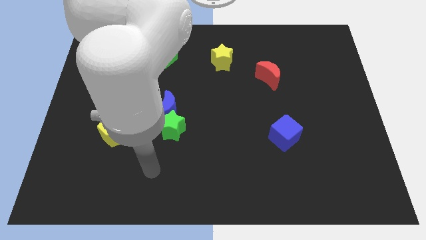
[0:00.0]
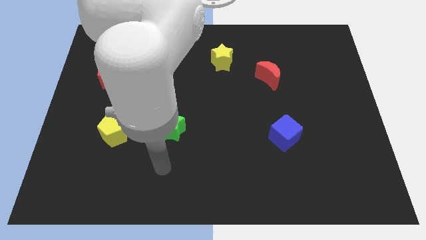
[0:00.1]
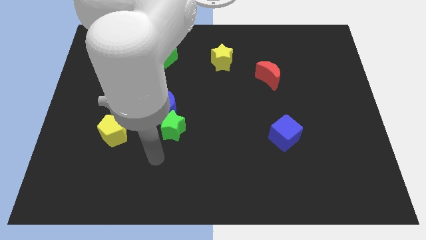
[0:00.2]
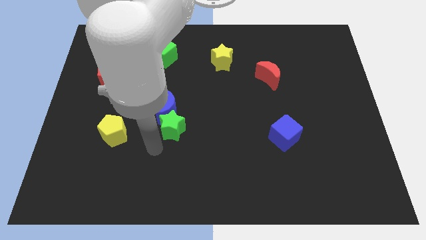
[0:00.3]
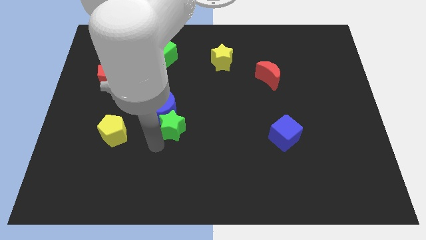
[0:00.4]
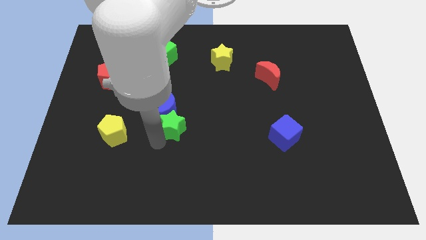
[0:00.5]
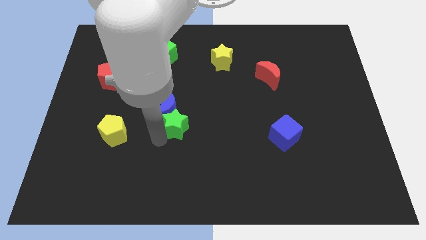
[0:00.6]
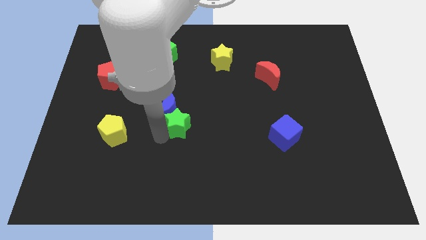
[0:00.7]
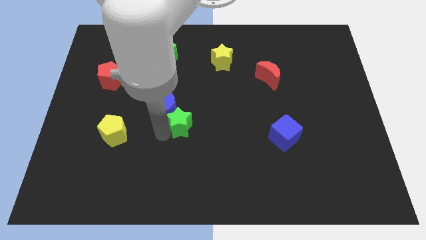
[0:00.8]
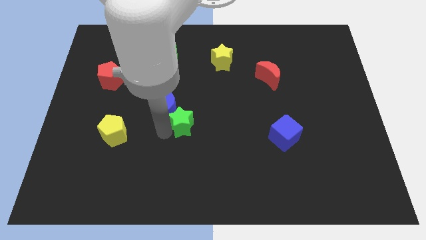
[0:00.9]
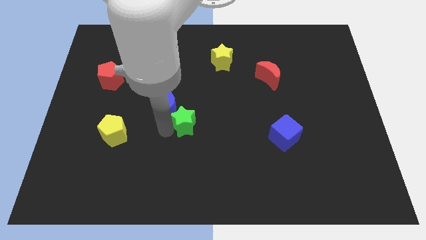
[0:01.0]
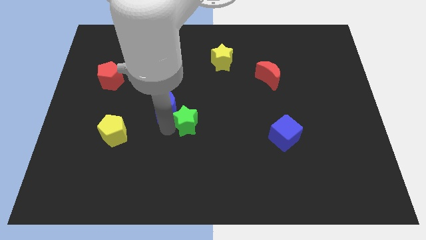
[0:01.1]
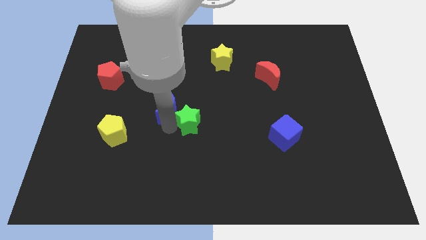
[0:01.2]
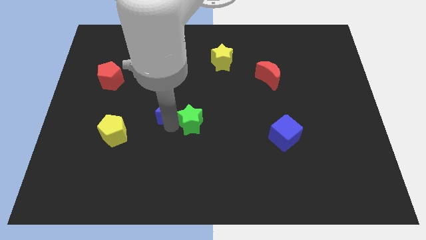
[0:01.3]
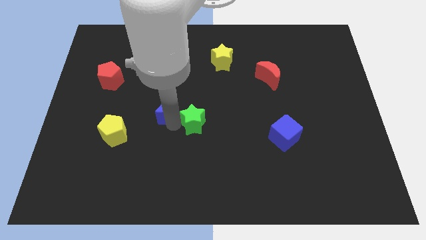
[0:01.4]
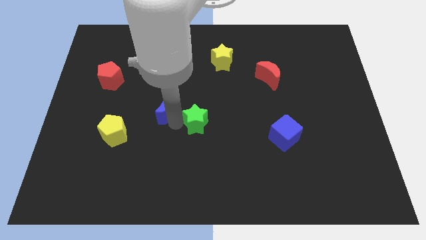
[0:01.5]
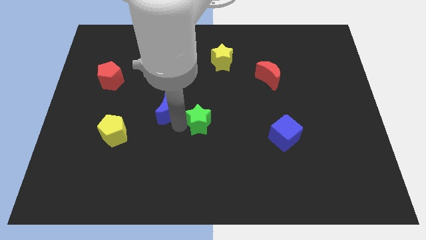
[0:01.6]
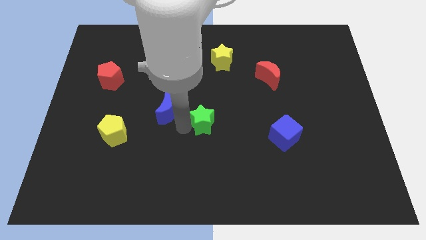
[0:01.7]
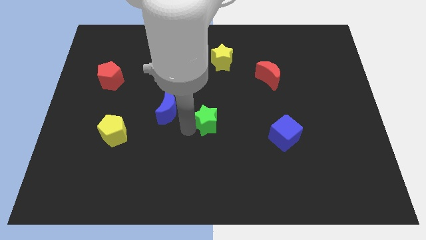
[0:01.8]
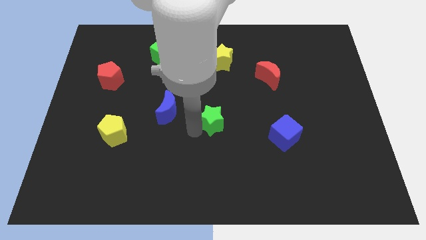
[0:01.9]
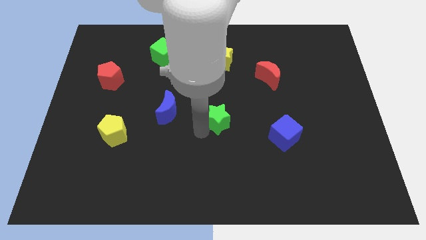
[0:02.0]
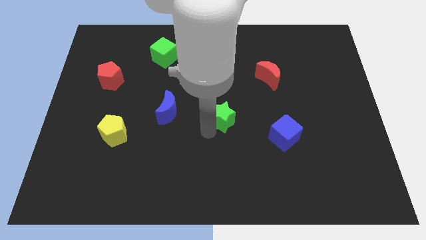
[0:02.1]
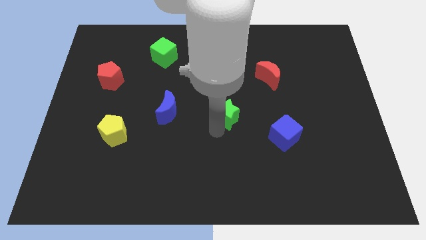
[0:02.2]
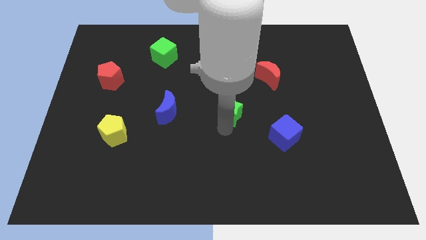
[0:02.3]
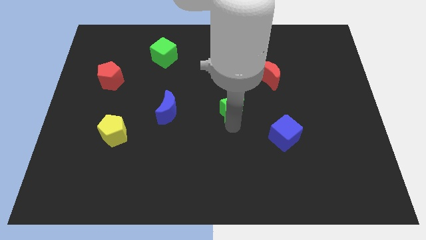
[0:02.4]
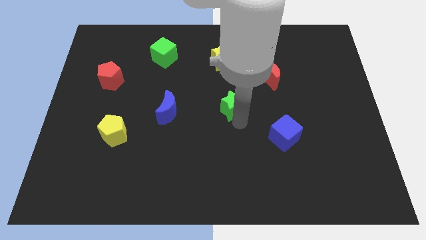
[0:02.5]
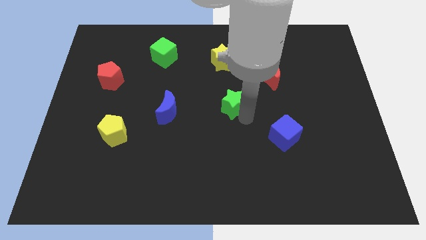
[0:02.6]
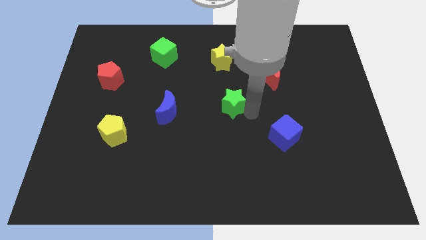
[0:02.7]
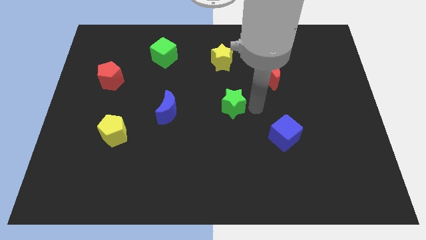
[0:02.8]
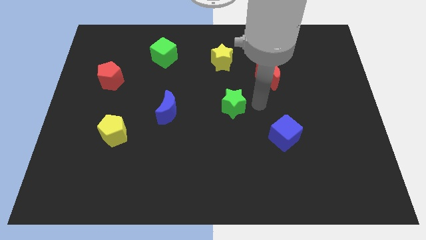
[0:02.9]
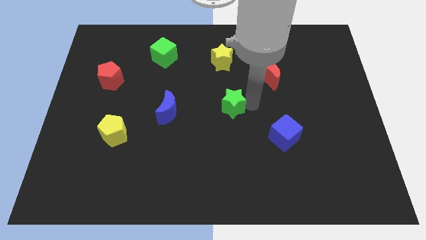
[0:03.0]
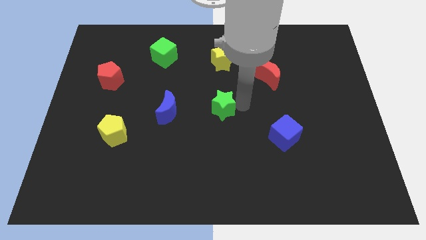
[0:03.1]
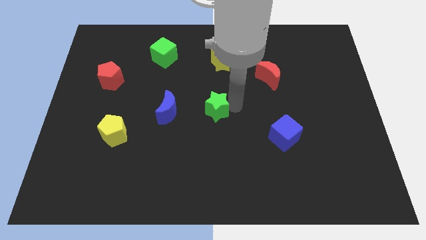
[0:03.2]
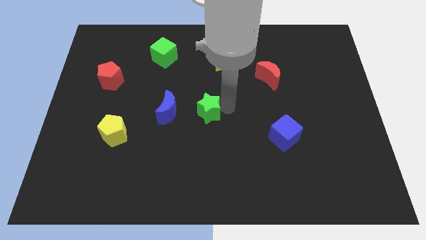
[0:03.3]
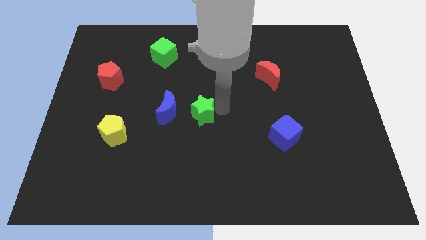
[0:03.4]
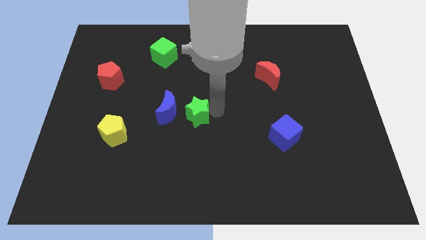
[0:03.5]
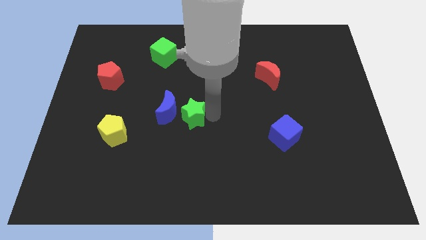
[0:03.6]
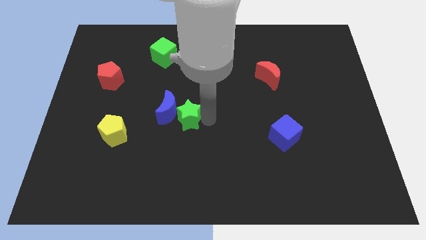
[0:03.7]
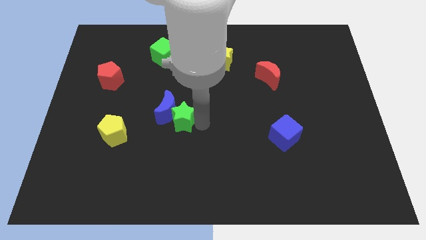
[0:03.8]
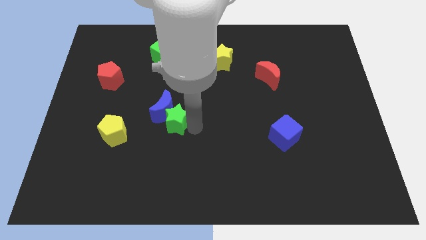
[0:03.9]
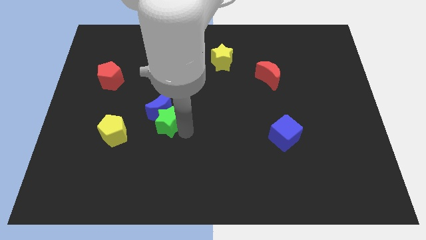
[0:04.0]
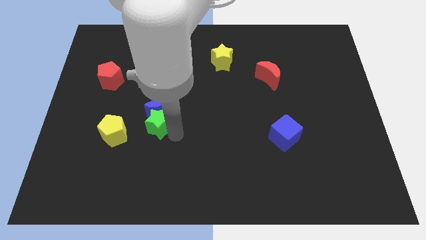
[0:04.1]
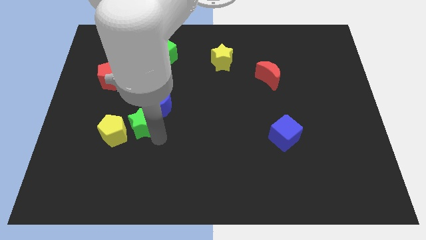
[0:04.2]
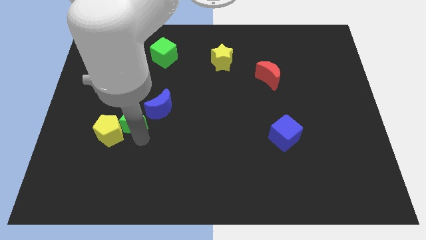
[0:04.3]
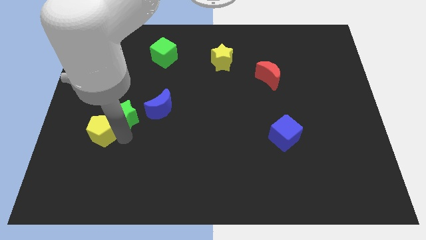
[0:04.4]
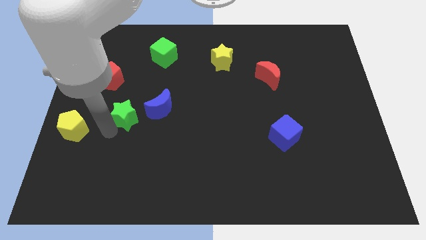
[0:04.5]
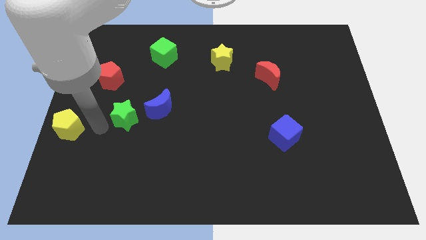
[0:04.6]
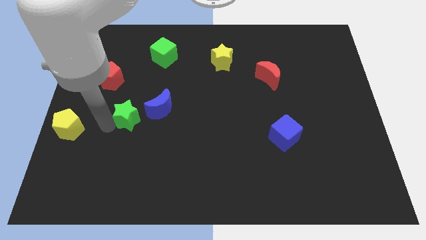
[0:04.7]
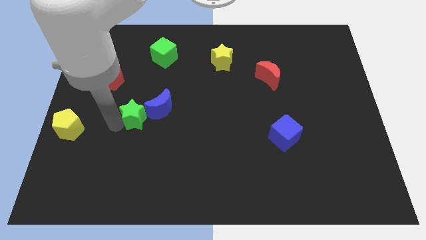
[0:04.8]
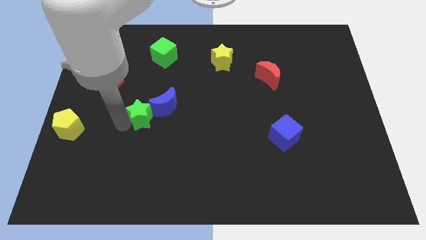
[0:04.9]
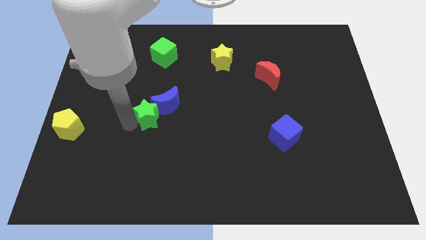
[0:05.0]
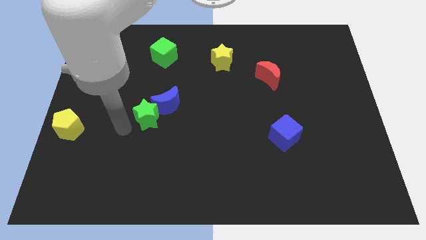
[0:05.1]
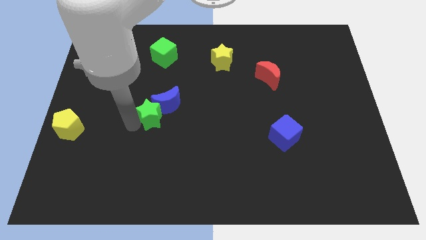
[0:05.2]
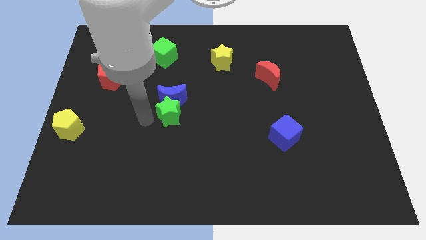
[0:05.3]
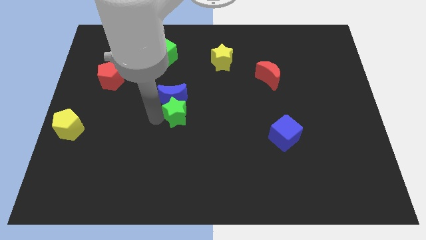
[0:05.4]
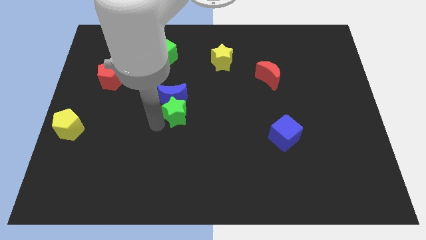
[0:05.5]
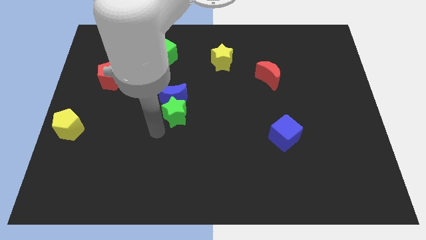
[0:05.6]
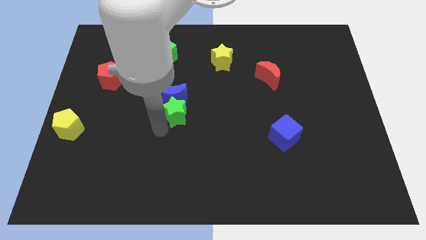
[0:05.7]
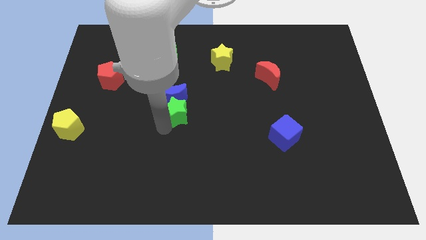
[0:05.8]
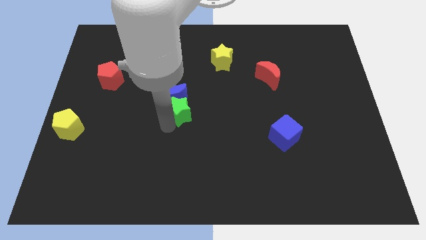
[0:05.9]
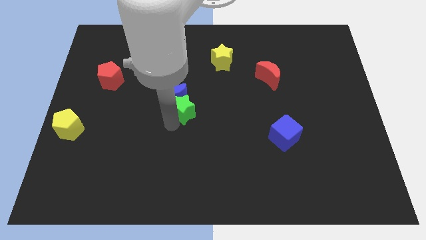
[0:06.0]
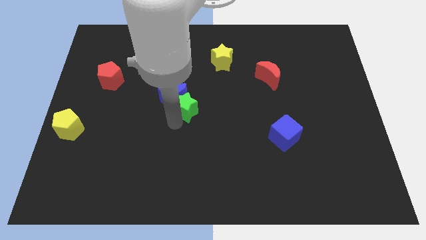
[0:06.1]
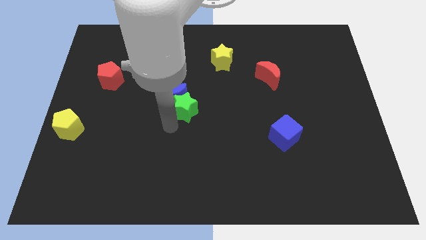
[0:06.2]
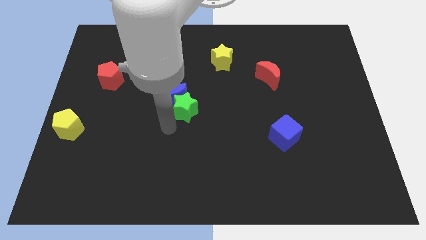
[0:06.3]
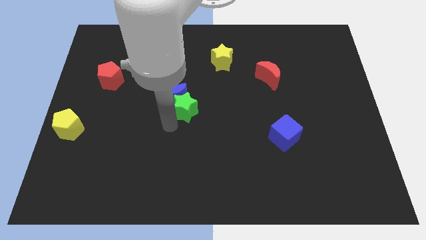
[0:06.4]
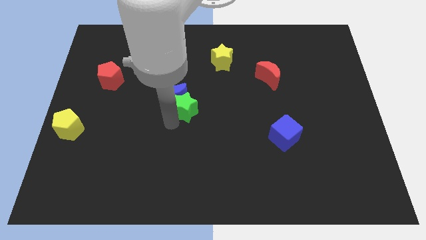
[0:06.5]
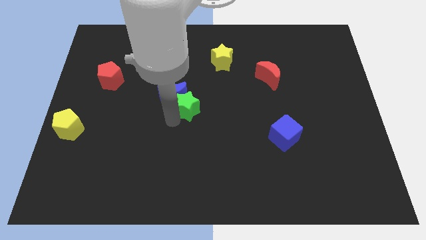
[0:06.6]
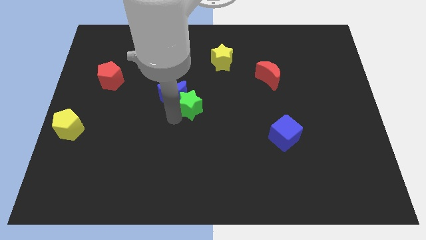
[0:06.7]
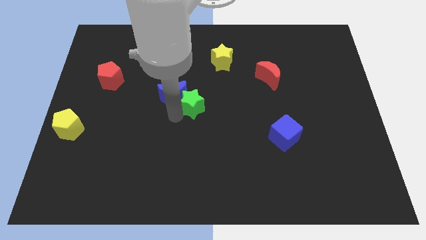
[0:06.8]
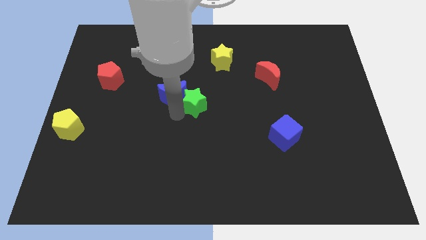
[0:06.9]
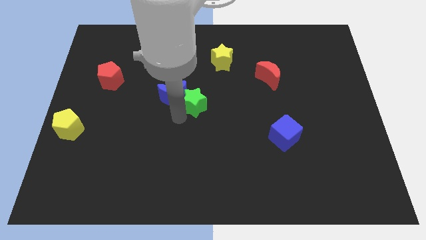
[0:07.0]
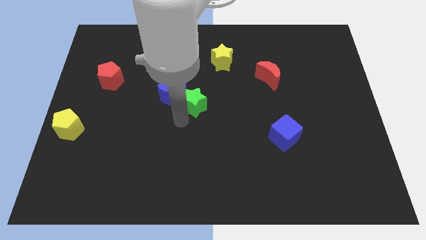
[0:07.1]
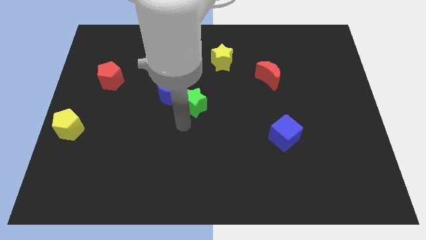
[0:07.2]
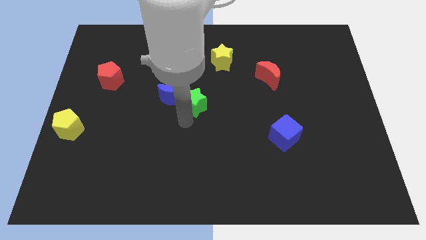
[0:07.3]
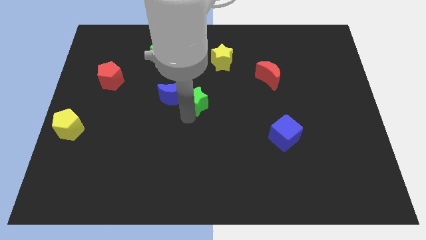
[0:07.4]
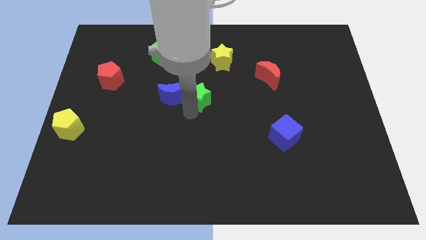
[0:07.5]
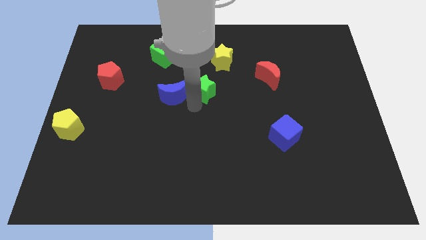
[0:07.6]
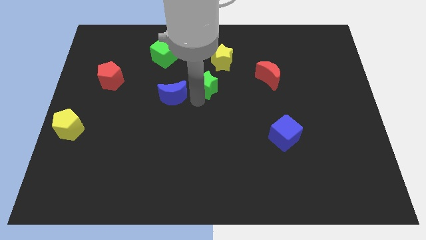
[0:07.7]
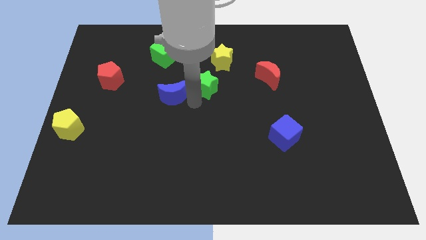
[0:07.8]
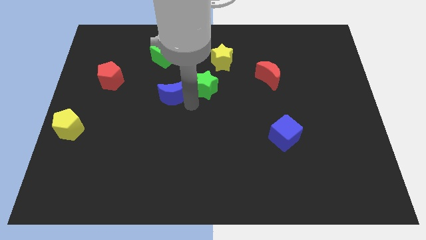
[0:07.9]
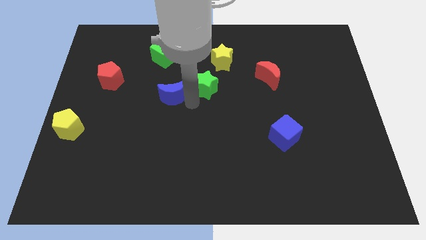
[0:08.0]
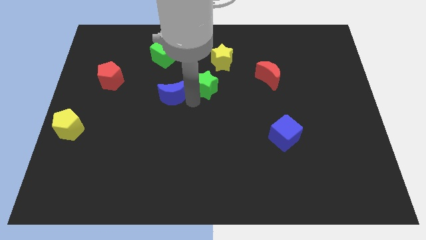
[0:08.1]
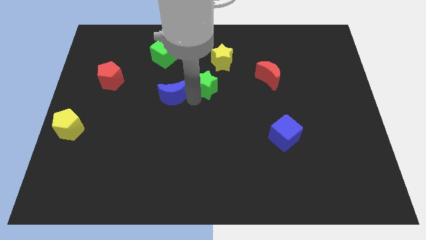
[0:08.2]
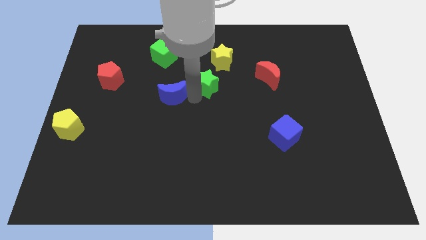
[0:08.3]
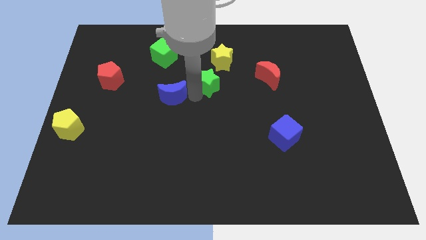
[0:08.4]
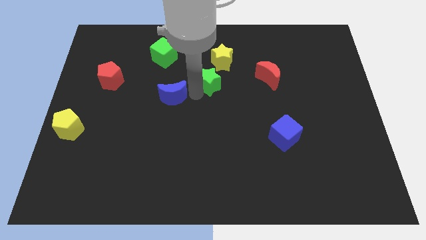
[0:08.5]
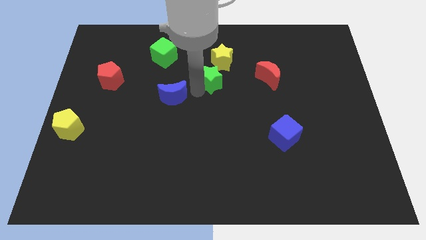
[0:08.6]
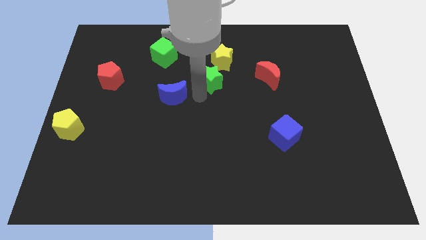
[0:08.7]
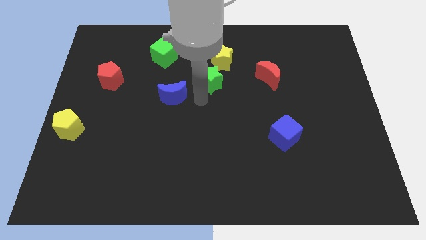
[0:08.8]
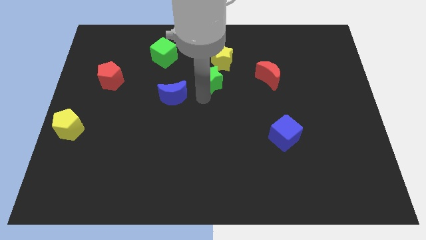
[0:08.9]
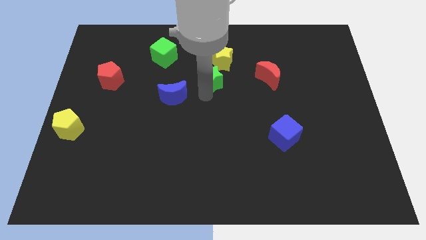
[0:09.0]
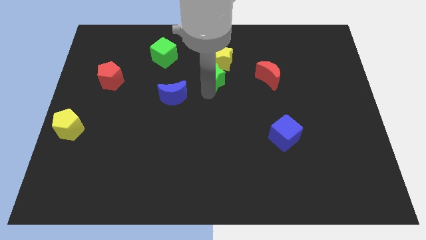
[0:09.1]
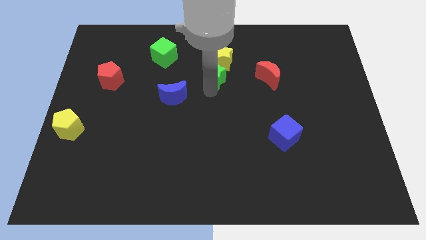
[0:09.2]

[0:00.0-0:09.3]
push the green star towards the yellow star
